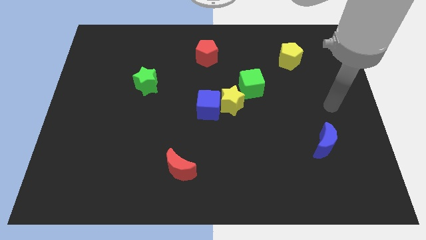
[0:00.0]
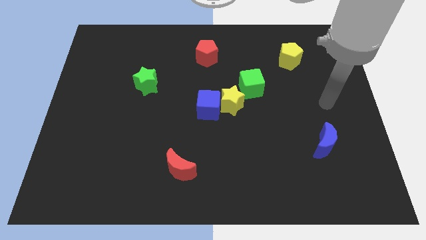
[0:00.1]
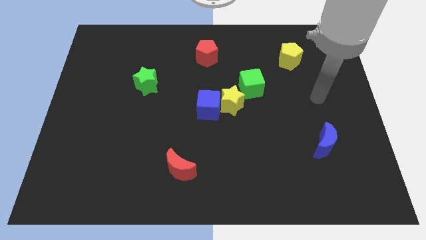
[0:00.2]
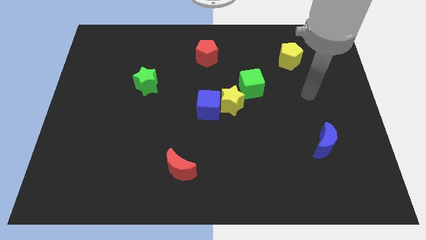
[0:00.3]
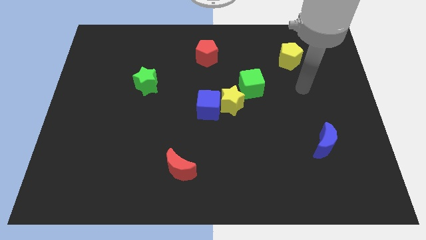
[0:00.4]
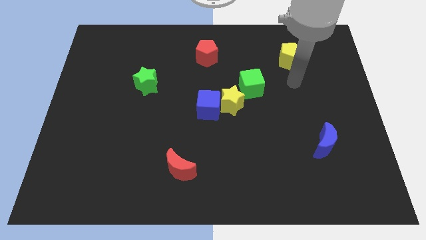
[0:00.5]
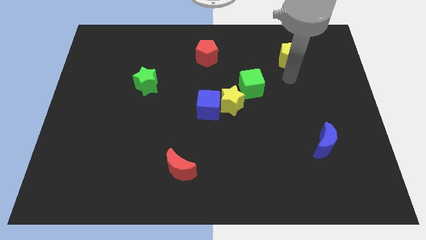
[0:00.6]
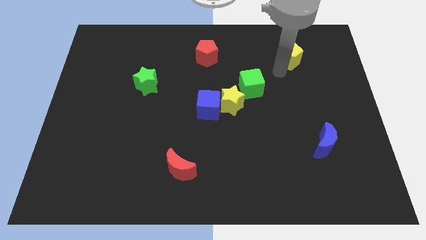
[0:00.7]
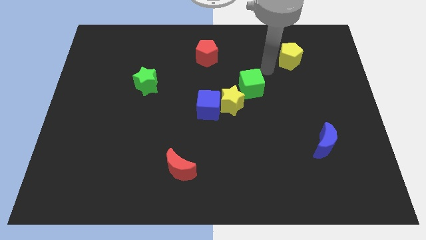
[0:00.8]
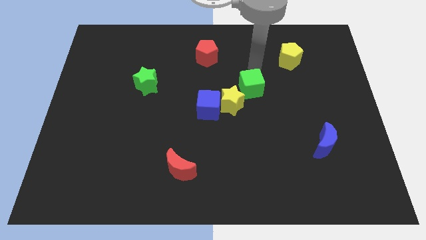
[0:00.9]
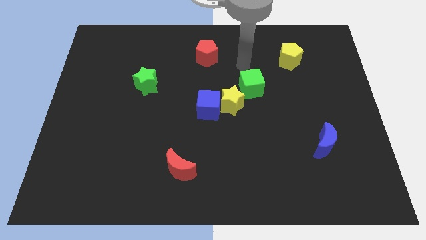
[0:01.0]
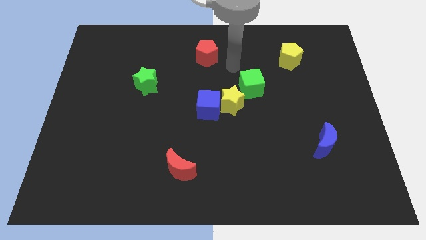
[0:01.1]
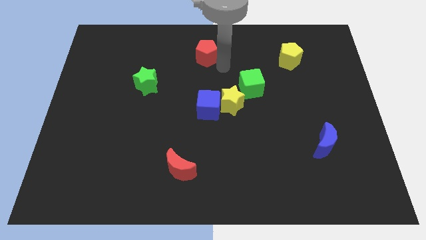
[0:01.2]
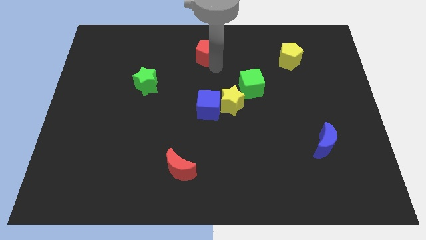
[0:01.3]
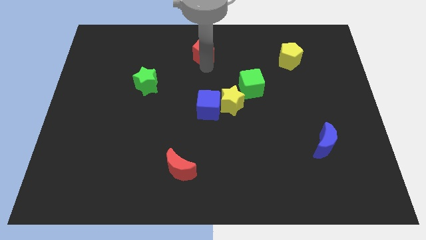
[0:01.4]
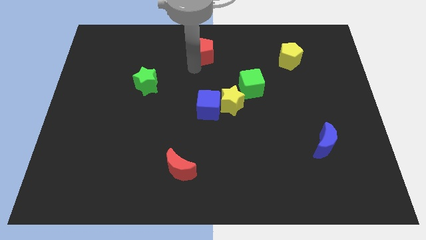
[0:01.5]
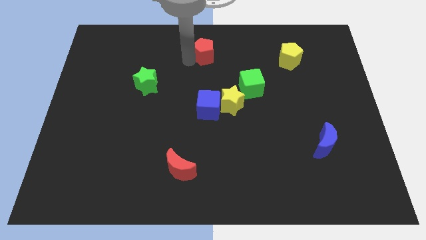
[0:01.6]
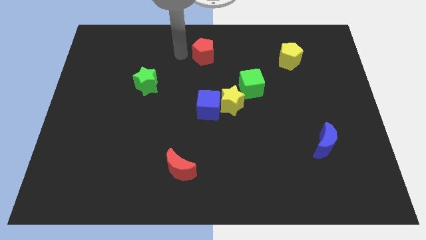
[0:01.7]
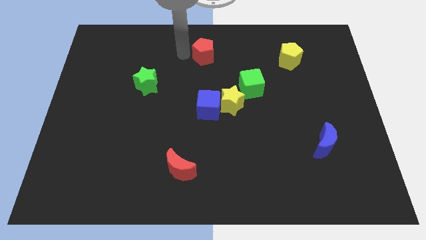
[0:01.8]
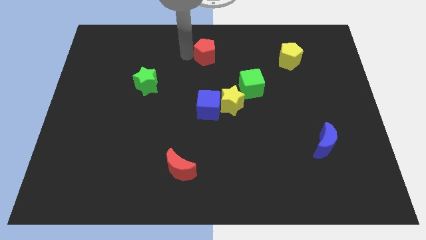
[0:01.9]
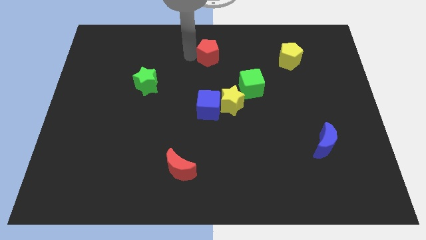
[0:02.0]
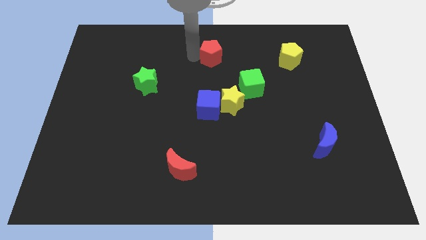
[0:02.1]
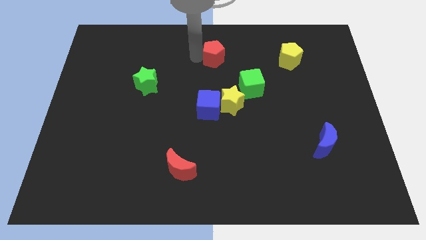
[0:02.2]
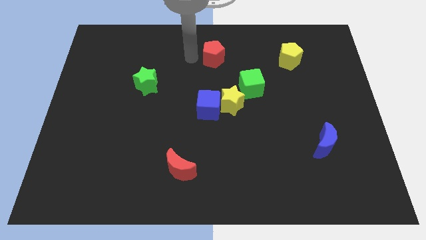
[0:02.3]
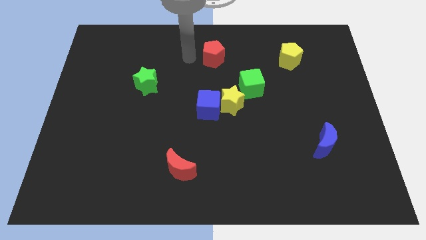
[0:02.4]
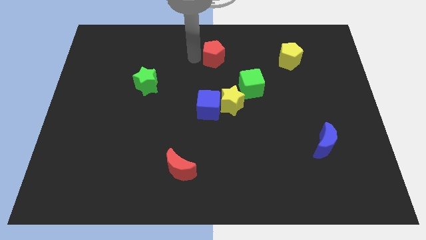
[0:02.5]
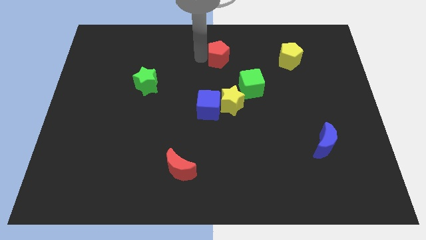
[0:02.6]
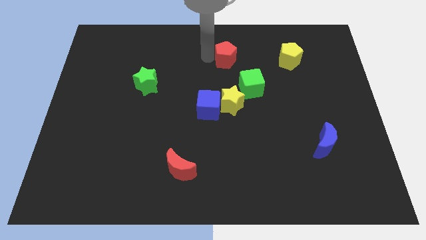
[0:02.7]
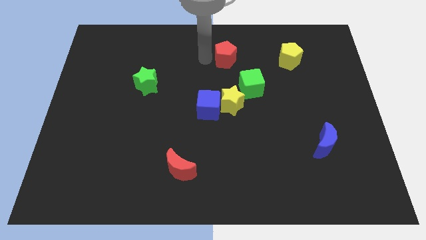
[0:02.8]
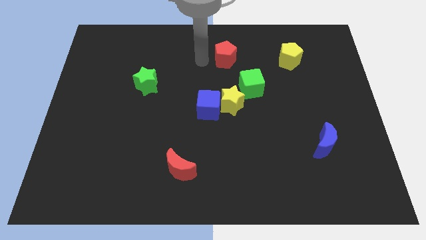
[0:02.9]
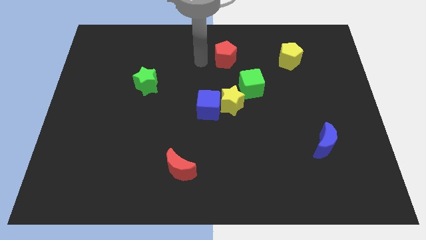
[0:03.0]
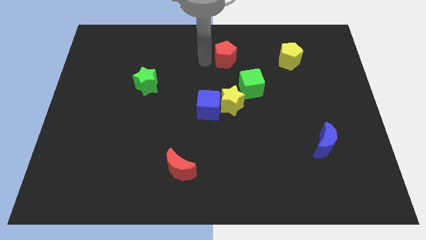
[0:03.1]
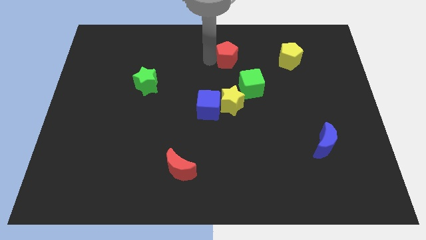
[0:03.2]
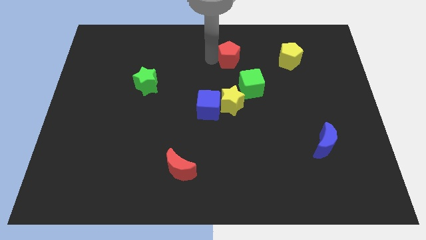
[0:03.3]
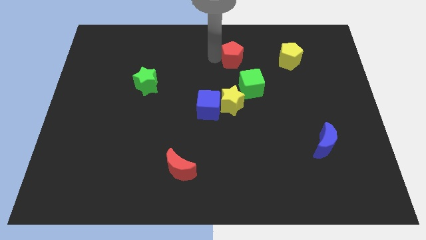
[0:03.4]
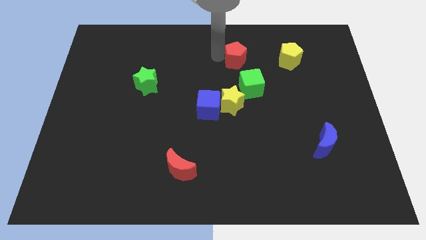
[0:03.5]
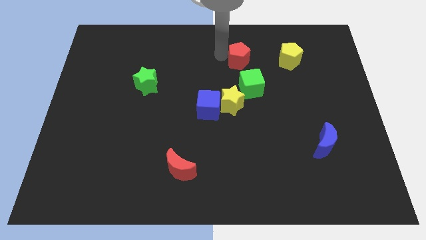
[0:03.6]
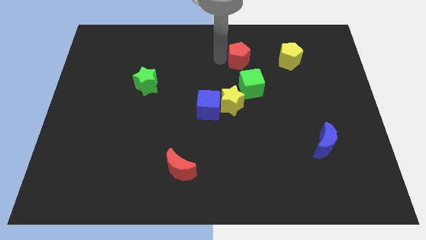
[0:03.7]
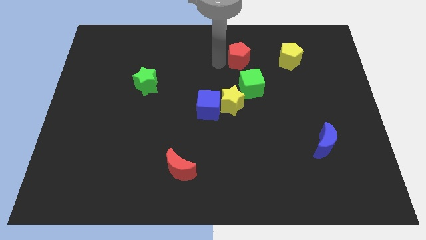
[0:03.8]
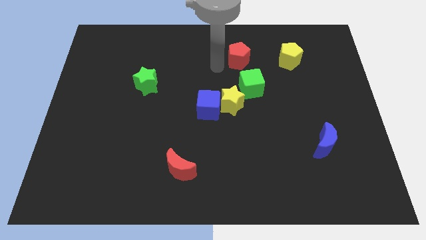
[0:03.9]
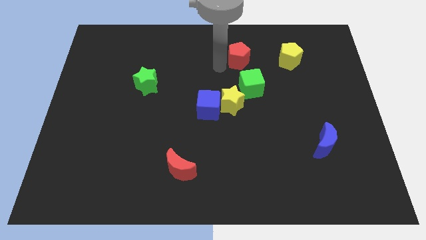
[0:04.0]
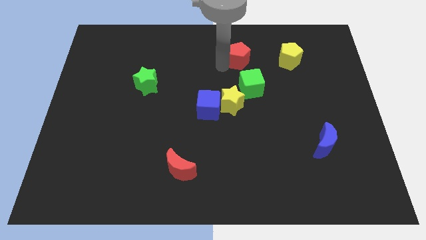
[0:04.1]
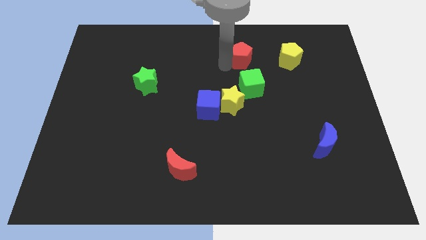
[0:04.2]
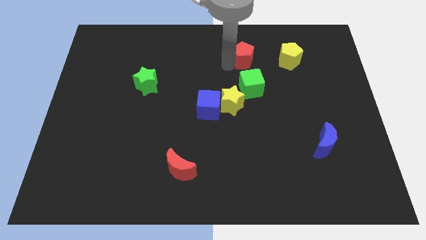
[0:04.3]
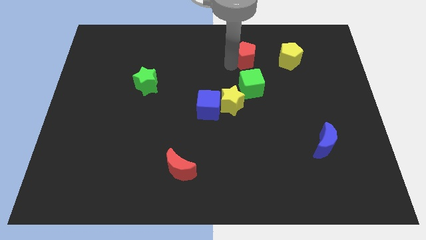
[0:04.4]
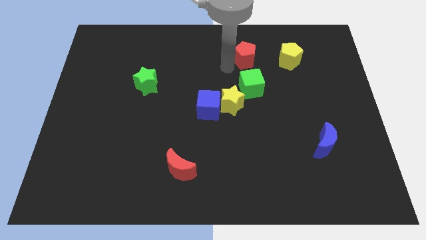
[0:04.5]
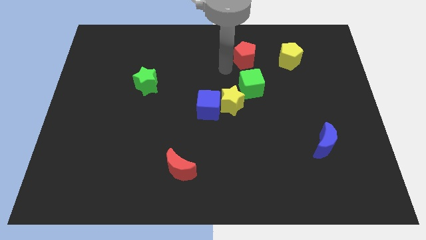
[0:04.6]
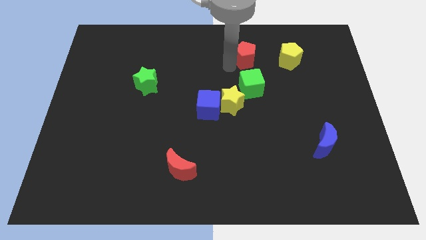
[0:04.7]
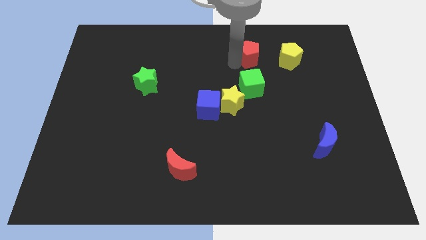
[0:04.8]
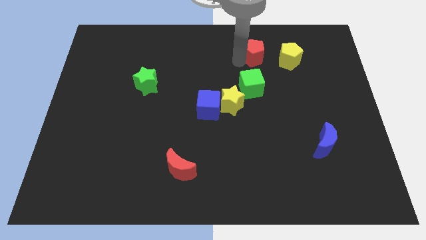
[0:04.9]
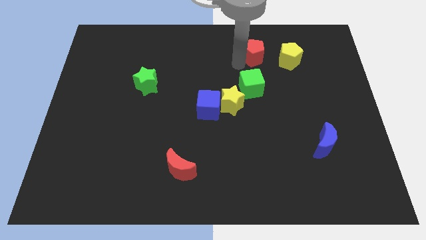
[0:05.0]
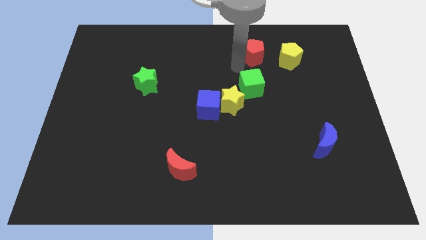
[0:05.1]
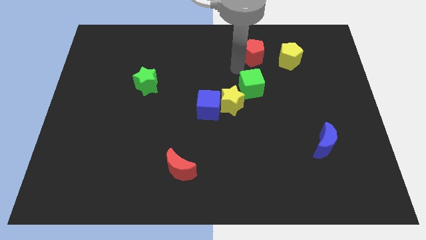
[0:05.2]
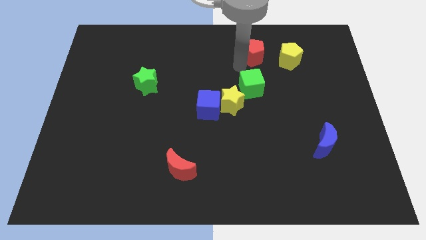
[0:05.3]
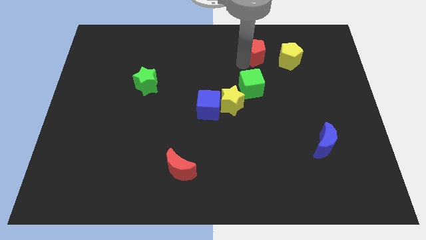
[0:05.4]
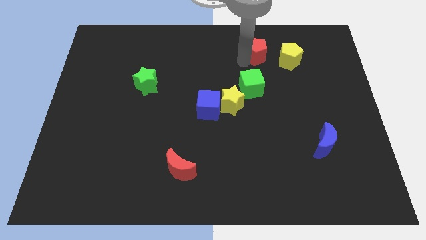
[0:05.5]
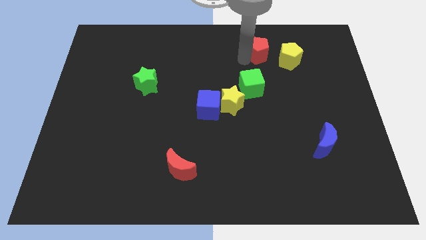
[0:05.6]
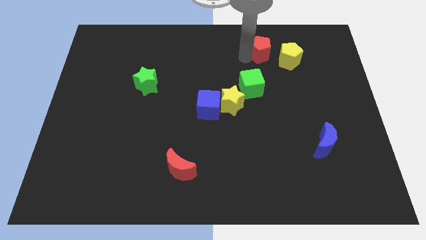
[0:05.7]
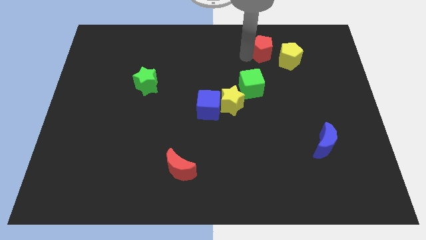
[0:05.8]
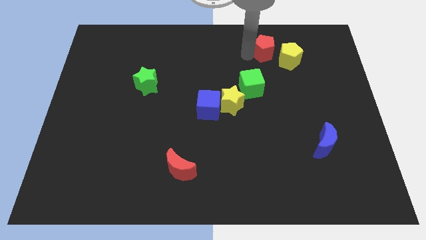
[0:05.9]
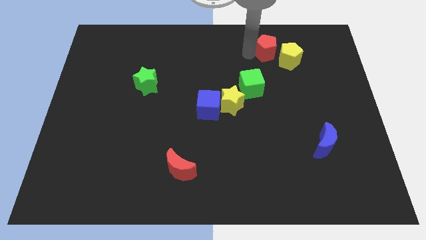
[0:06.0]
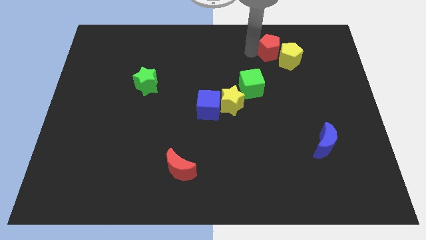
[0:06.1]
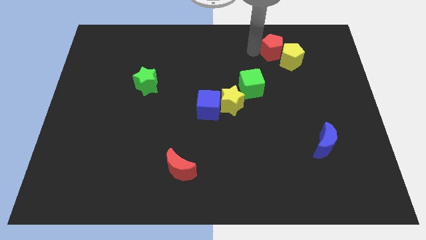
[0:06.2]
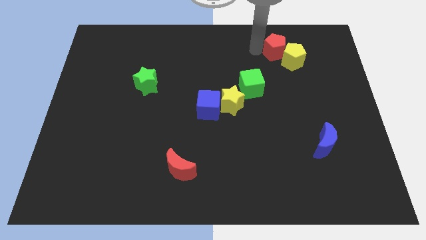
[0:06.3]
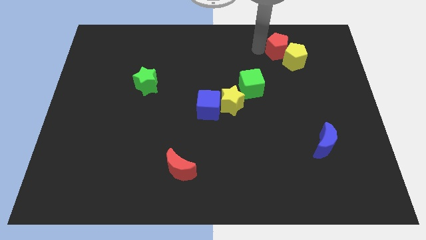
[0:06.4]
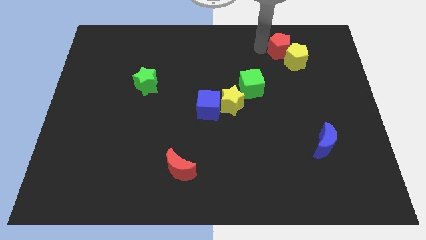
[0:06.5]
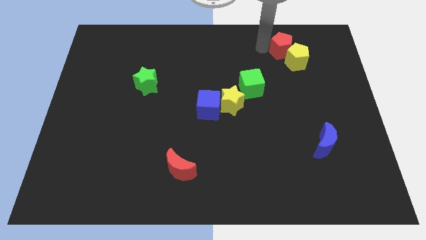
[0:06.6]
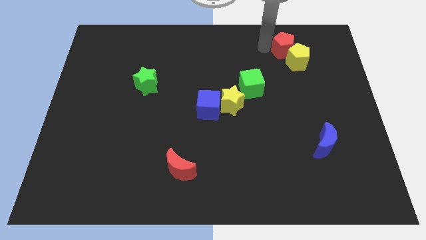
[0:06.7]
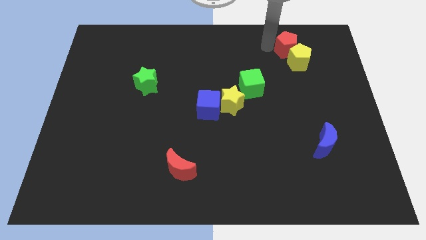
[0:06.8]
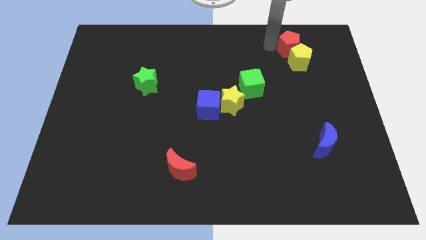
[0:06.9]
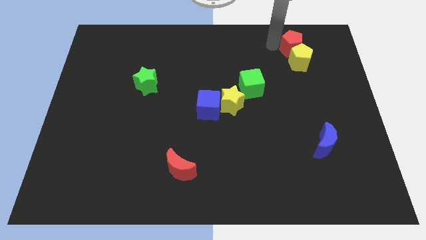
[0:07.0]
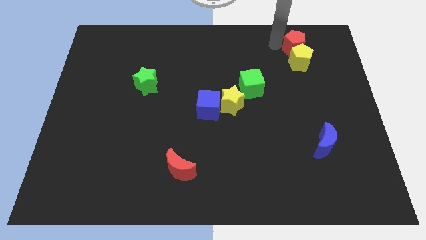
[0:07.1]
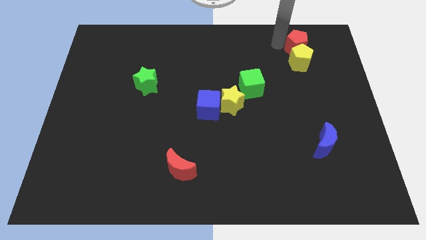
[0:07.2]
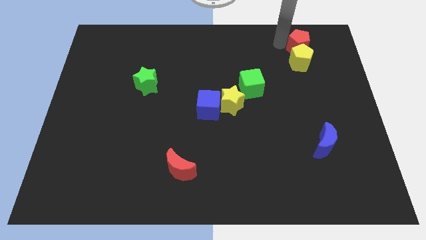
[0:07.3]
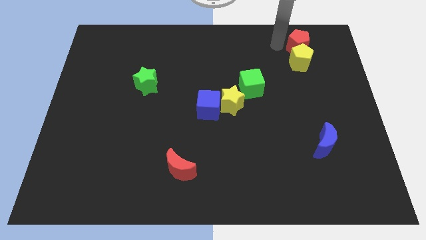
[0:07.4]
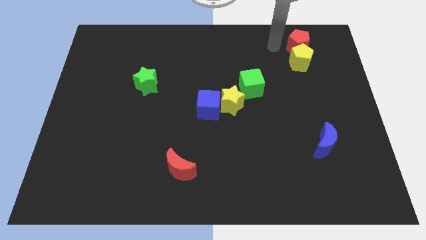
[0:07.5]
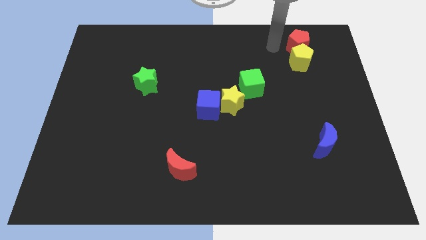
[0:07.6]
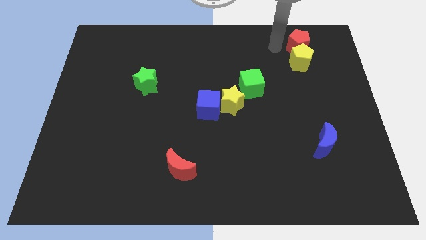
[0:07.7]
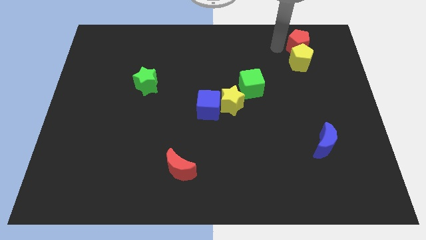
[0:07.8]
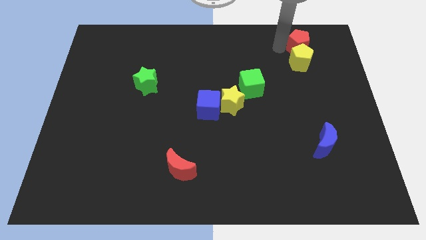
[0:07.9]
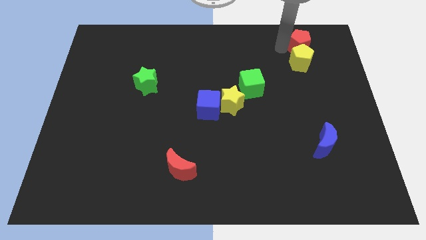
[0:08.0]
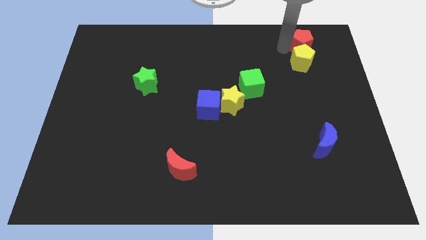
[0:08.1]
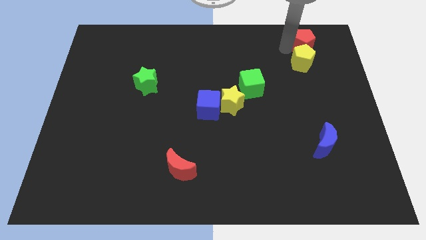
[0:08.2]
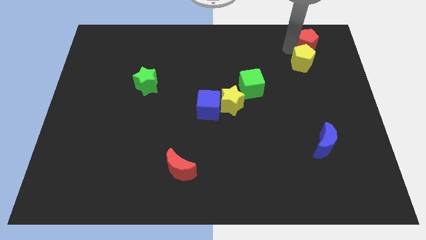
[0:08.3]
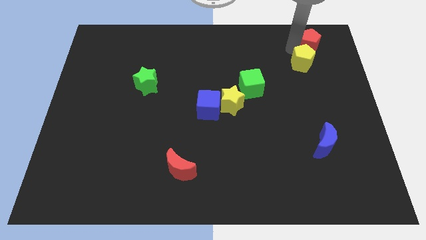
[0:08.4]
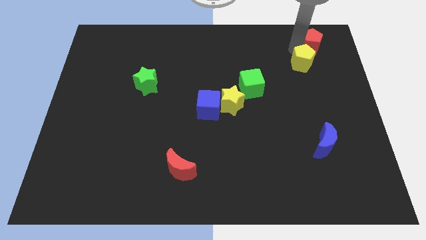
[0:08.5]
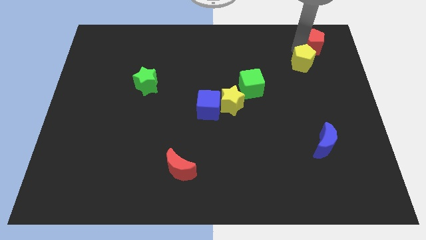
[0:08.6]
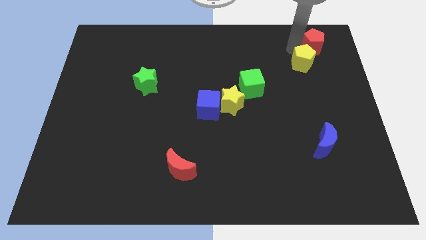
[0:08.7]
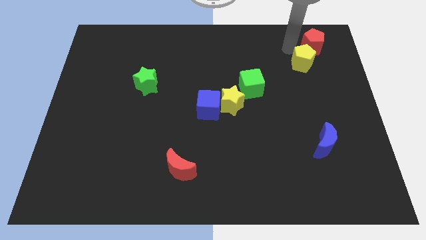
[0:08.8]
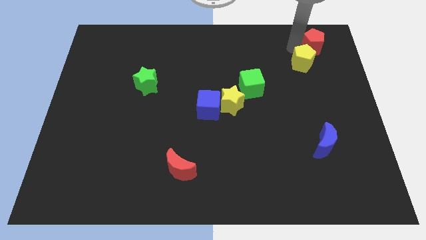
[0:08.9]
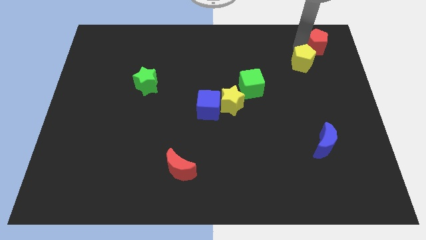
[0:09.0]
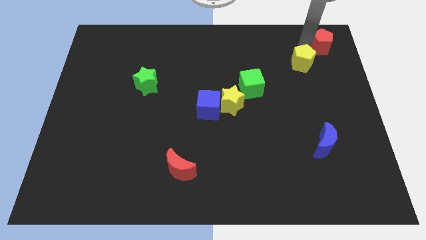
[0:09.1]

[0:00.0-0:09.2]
move the red pentagon to the top right corner
